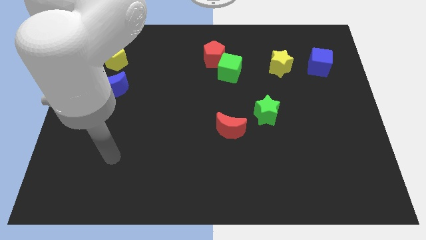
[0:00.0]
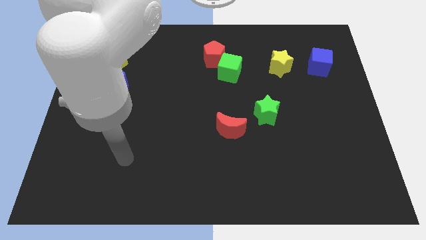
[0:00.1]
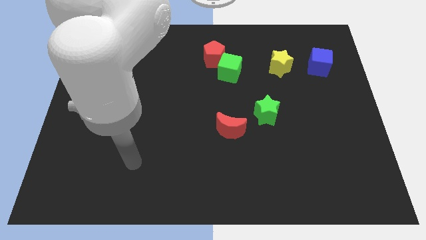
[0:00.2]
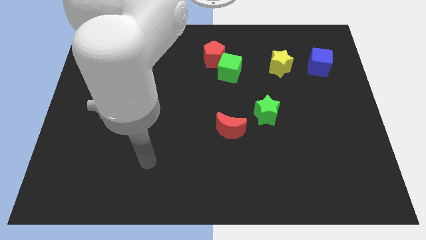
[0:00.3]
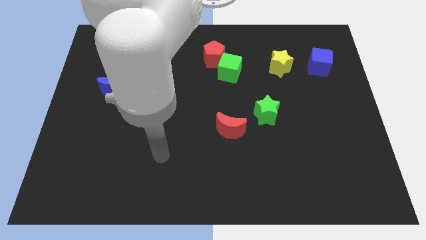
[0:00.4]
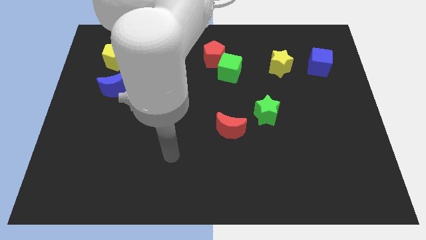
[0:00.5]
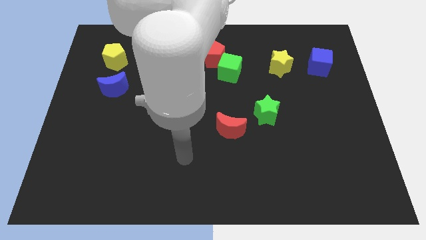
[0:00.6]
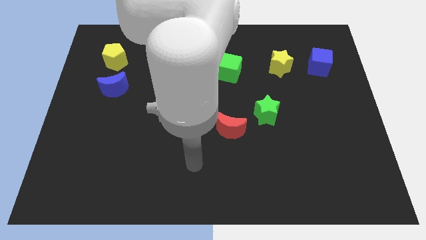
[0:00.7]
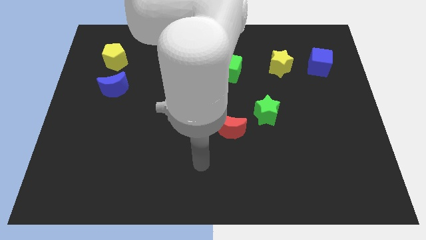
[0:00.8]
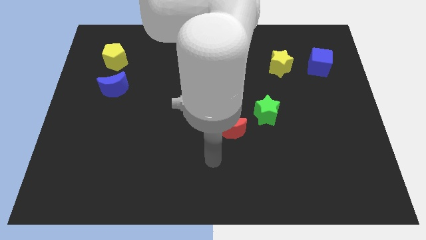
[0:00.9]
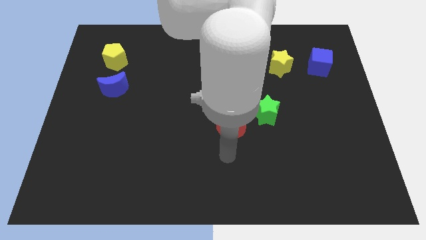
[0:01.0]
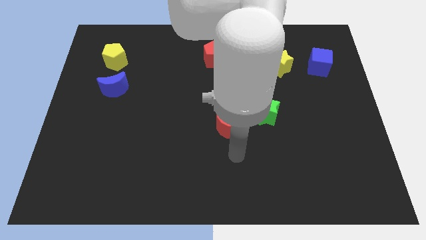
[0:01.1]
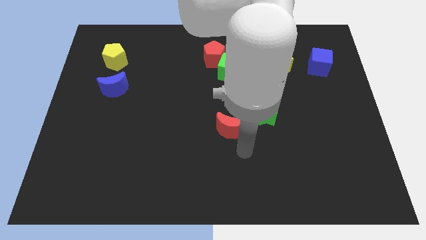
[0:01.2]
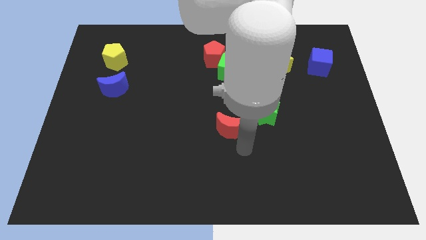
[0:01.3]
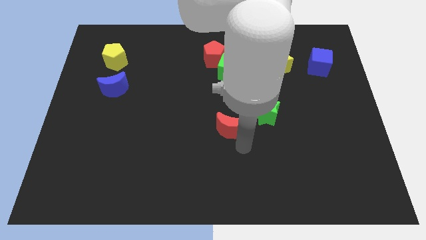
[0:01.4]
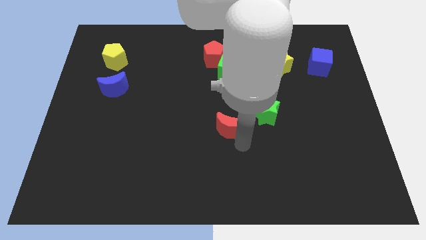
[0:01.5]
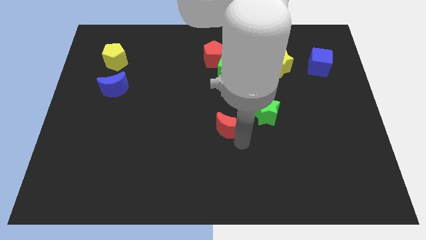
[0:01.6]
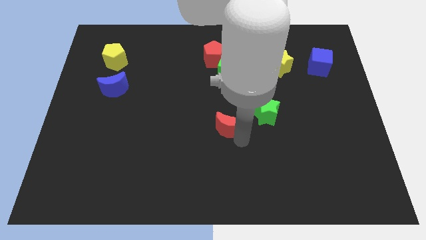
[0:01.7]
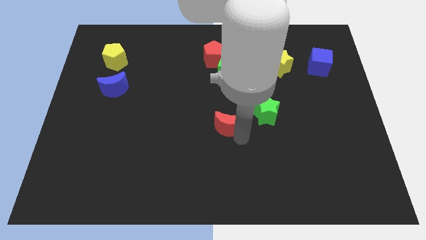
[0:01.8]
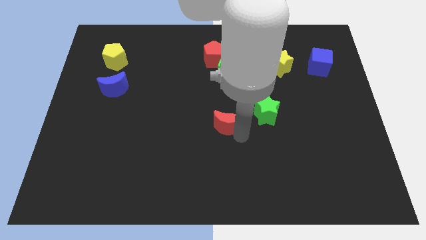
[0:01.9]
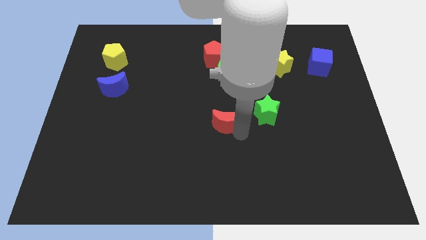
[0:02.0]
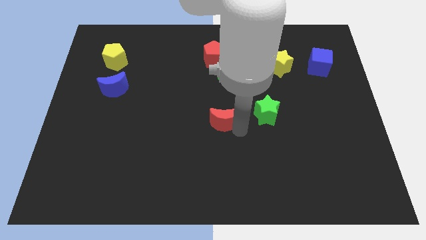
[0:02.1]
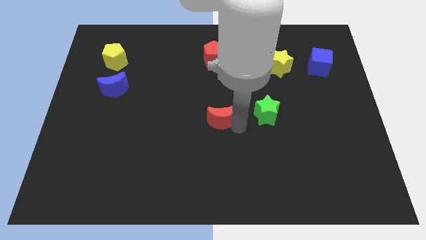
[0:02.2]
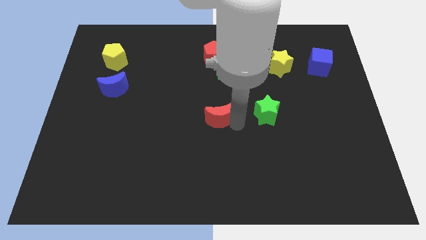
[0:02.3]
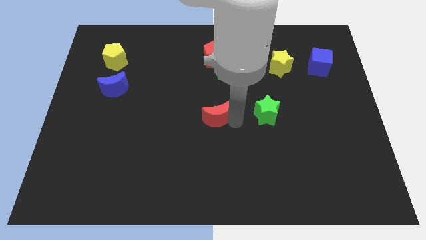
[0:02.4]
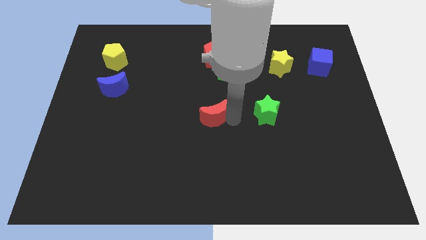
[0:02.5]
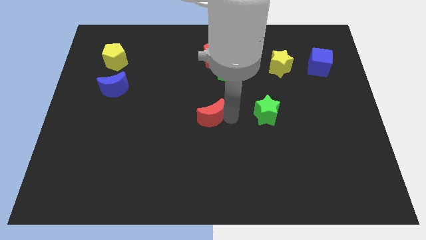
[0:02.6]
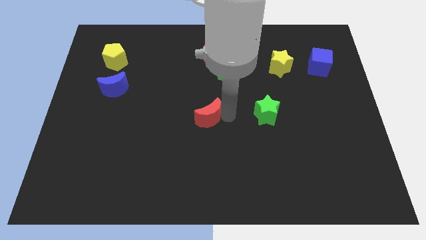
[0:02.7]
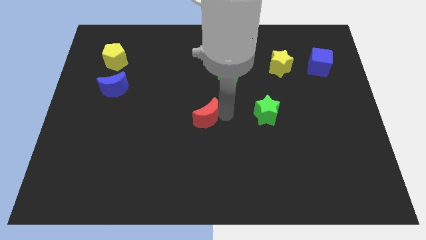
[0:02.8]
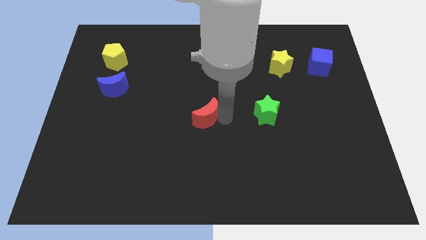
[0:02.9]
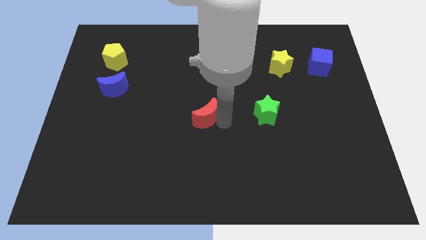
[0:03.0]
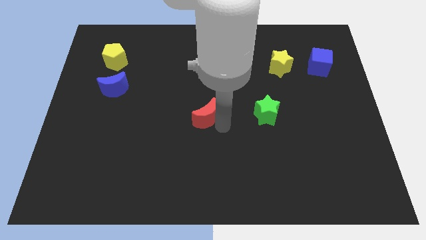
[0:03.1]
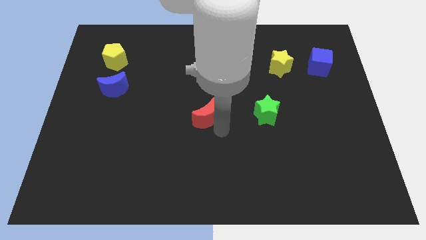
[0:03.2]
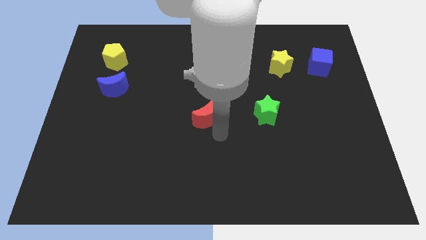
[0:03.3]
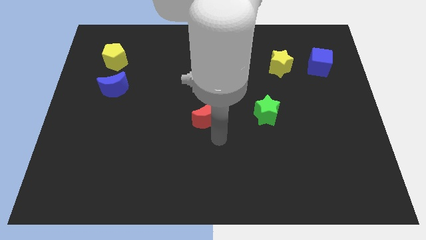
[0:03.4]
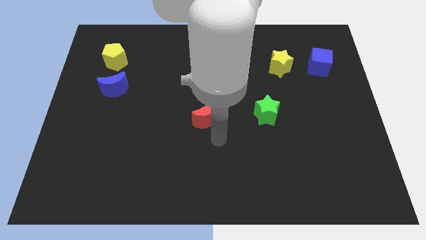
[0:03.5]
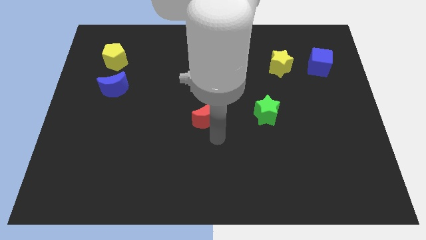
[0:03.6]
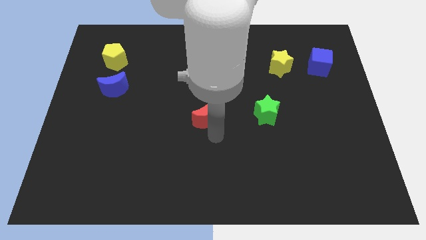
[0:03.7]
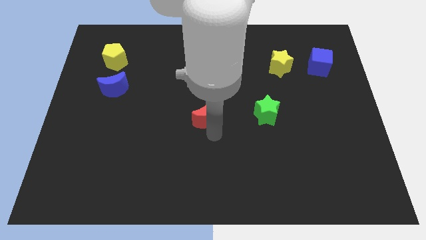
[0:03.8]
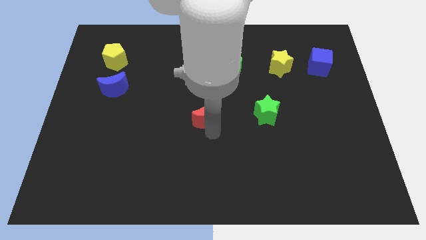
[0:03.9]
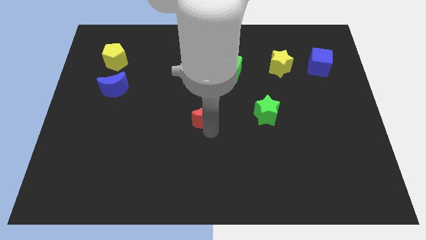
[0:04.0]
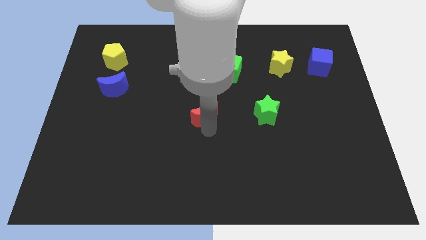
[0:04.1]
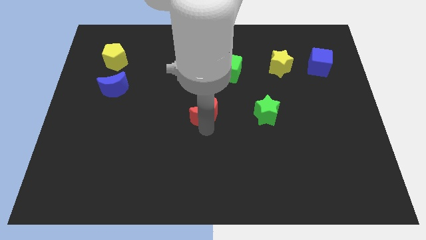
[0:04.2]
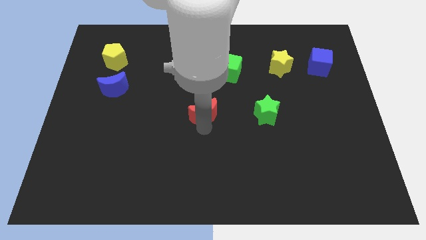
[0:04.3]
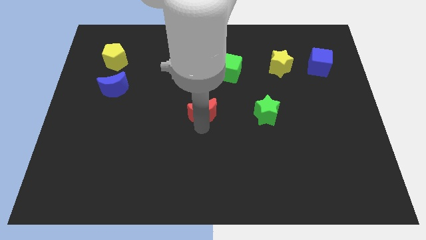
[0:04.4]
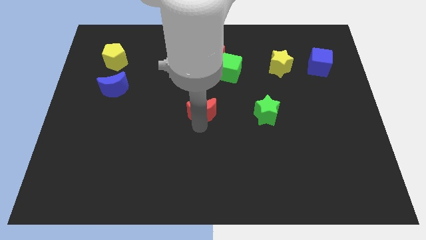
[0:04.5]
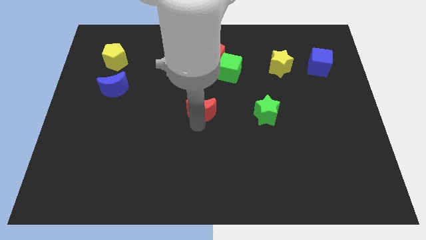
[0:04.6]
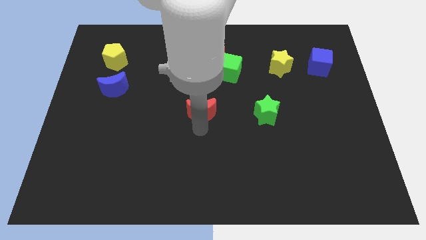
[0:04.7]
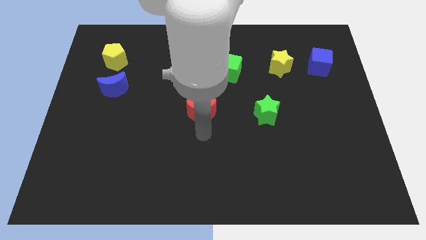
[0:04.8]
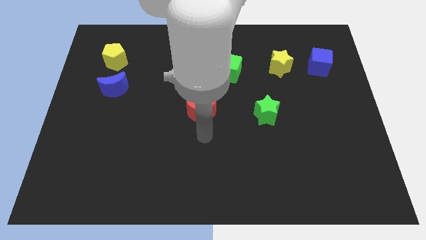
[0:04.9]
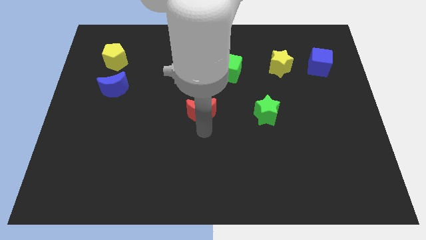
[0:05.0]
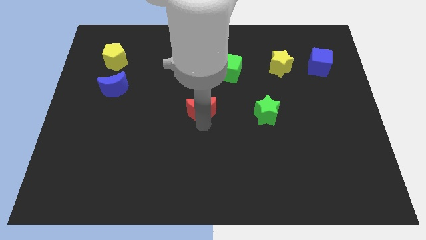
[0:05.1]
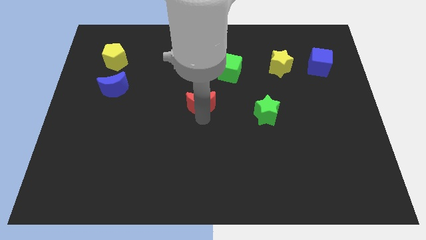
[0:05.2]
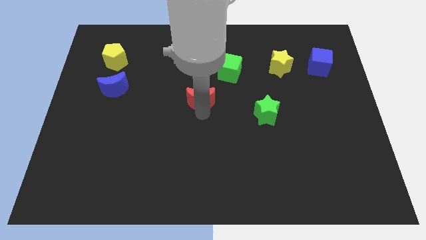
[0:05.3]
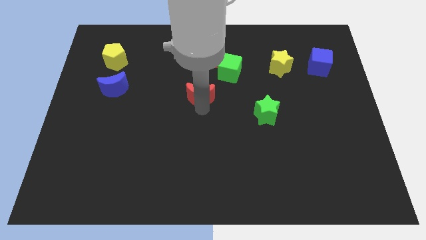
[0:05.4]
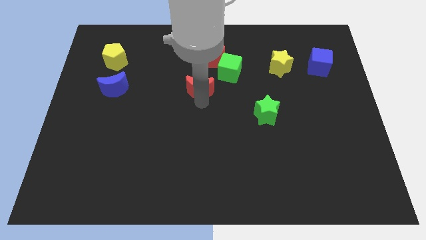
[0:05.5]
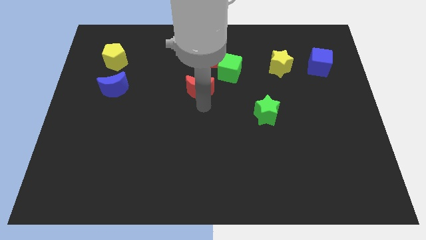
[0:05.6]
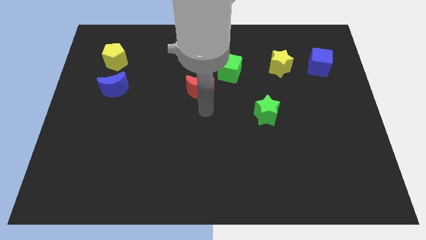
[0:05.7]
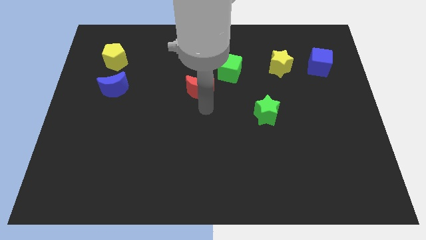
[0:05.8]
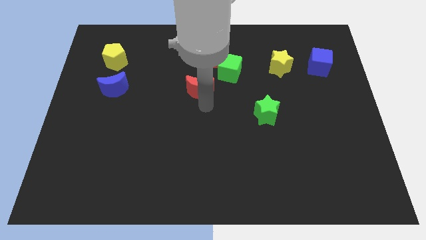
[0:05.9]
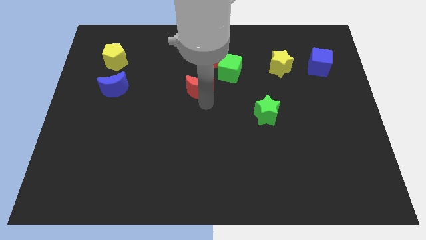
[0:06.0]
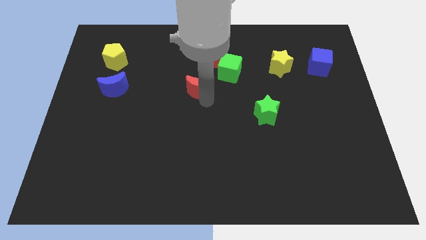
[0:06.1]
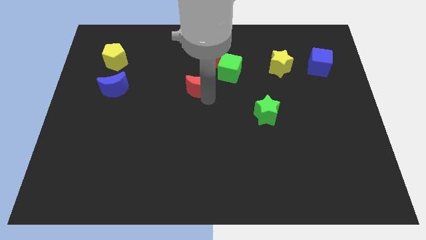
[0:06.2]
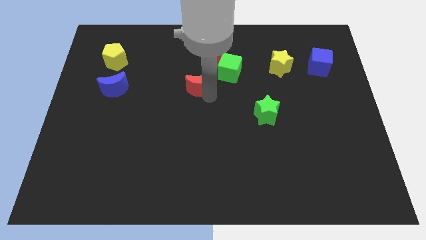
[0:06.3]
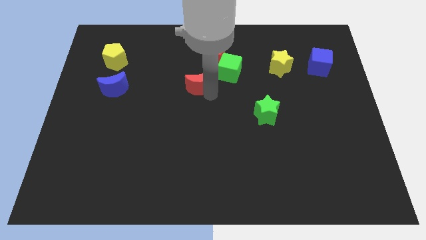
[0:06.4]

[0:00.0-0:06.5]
move the red moon to the bottom left side of the red pentagon
